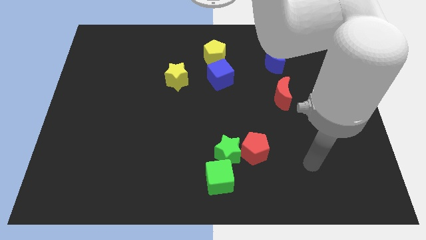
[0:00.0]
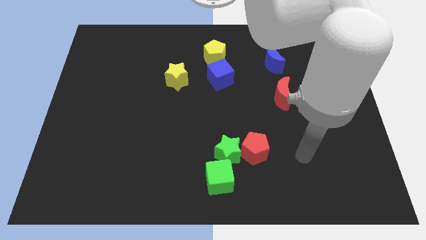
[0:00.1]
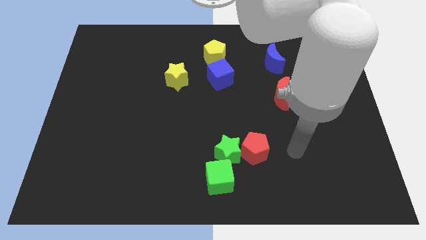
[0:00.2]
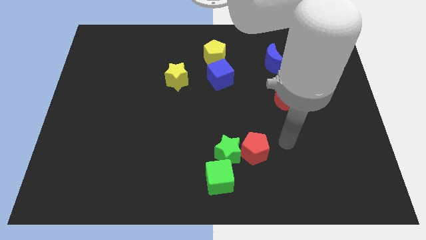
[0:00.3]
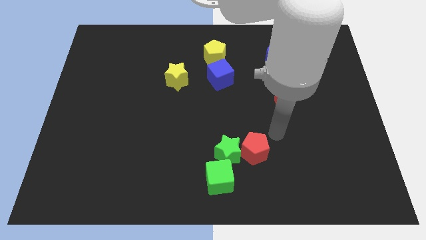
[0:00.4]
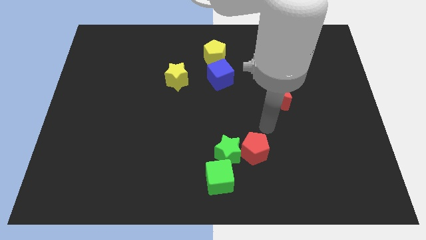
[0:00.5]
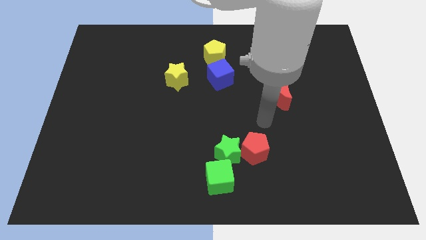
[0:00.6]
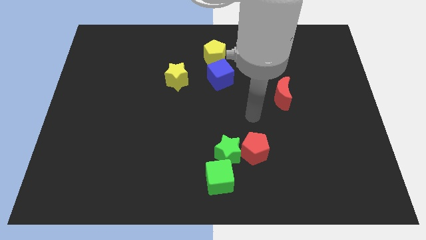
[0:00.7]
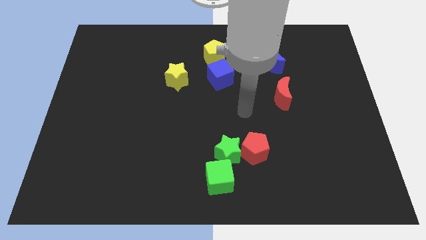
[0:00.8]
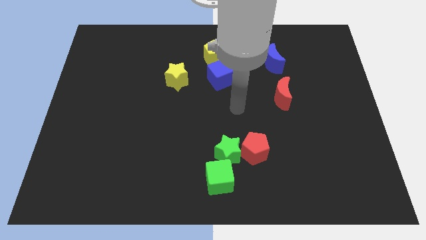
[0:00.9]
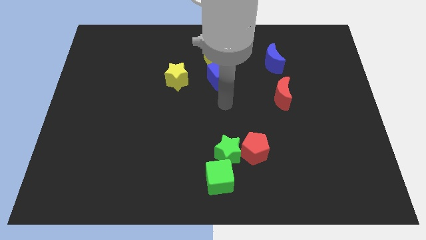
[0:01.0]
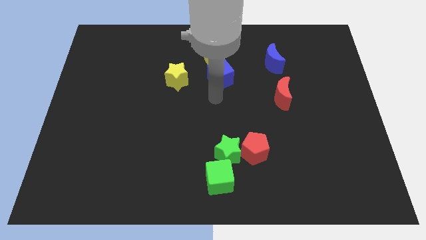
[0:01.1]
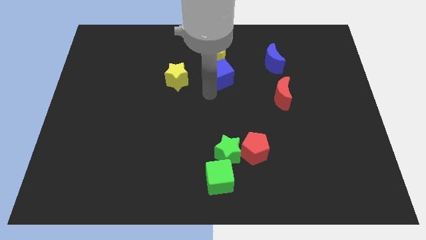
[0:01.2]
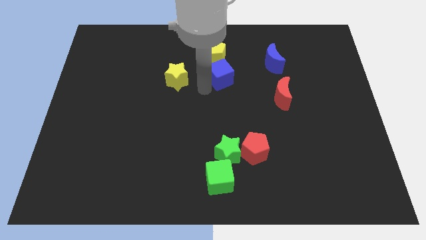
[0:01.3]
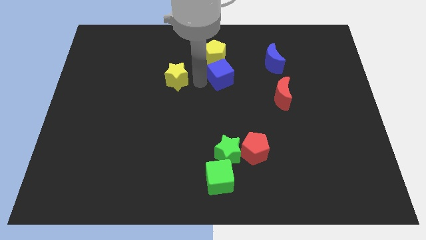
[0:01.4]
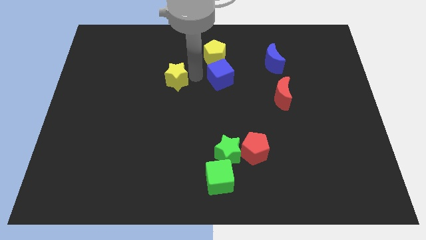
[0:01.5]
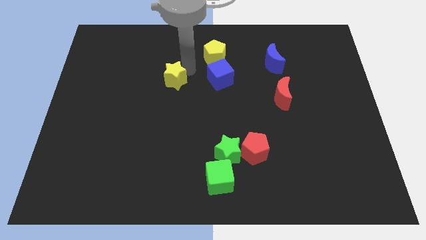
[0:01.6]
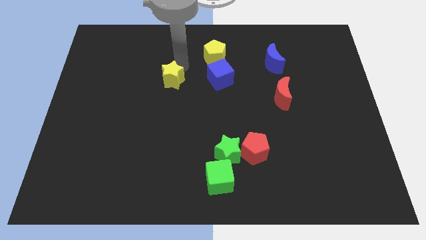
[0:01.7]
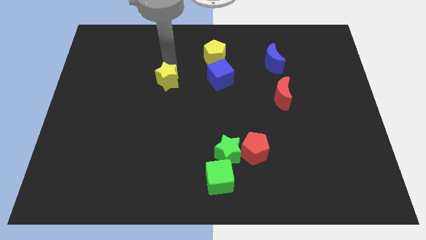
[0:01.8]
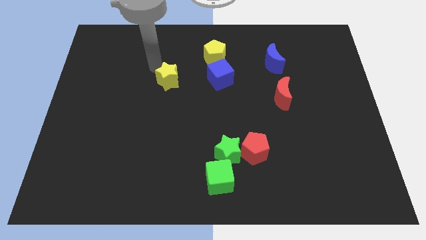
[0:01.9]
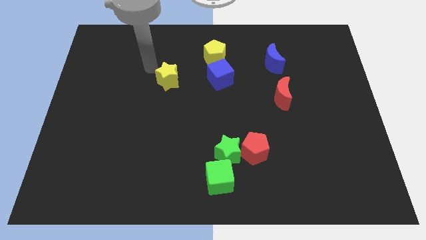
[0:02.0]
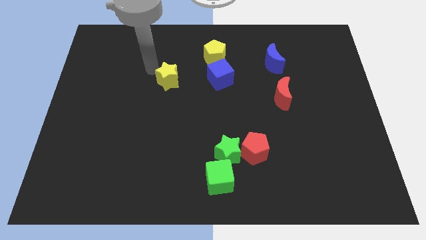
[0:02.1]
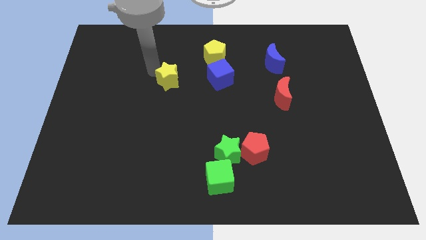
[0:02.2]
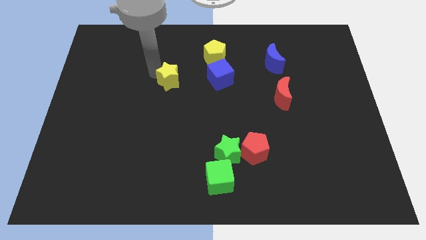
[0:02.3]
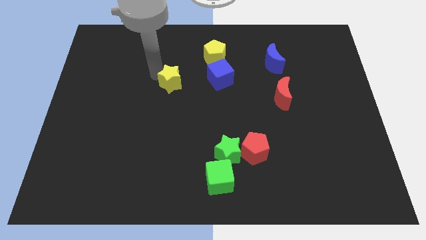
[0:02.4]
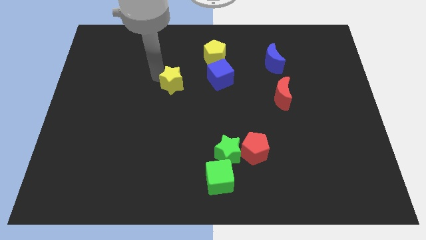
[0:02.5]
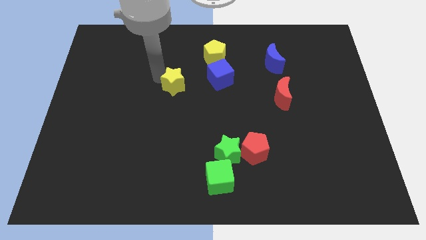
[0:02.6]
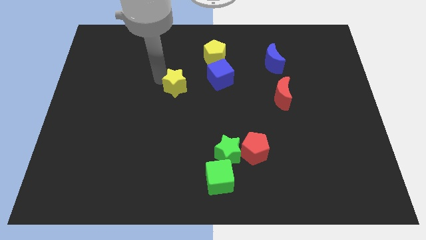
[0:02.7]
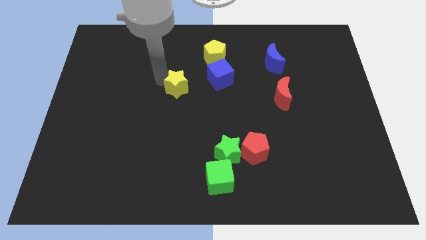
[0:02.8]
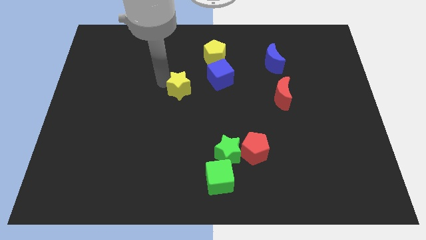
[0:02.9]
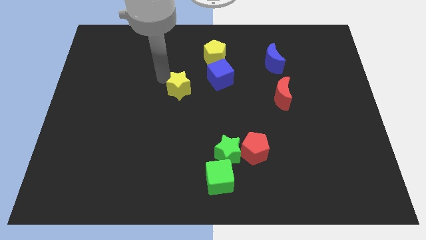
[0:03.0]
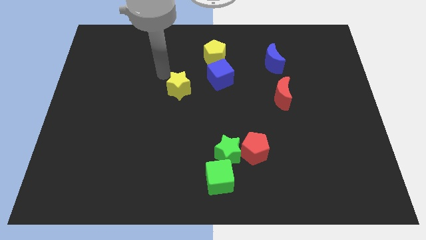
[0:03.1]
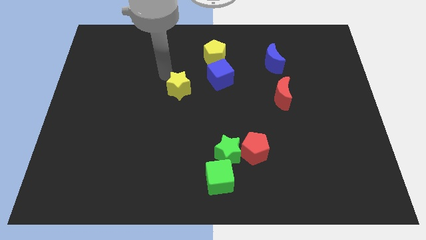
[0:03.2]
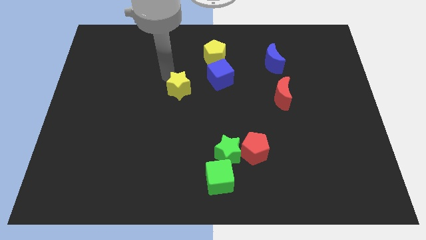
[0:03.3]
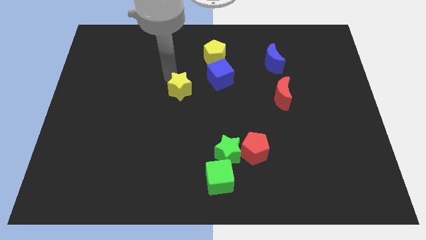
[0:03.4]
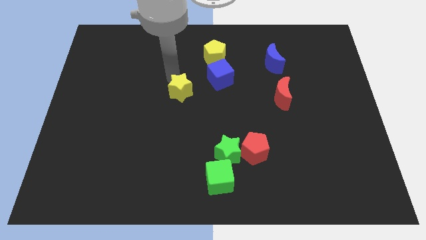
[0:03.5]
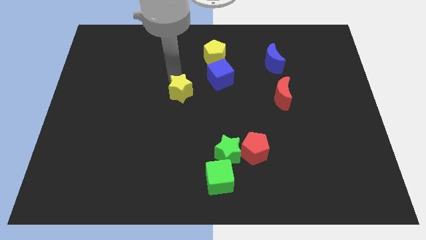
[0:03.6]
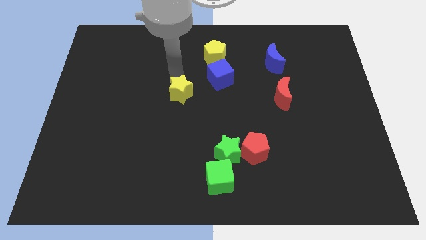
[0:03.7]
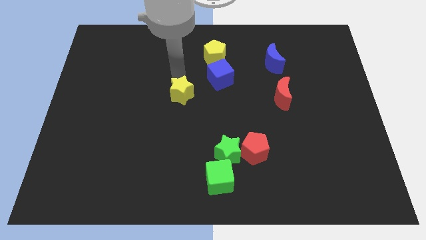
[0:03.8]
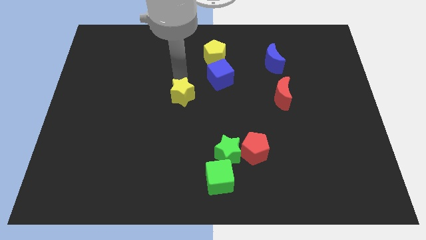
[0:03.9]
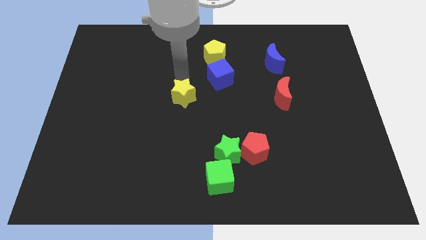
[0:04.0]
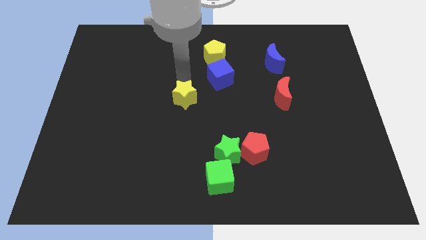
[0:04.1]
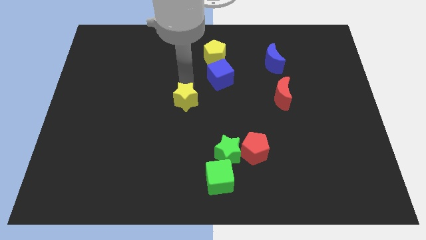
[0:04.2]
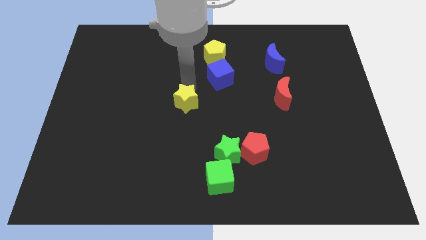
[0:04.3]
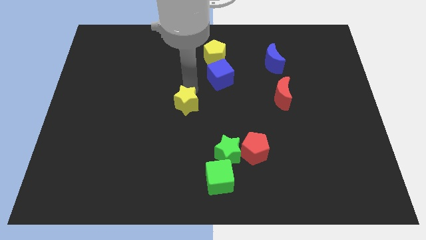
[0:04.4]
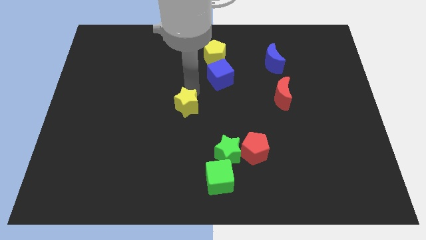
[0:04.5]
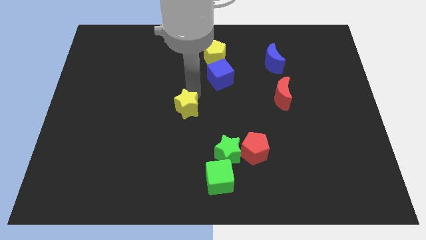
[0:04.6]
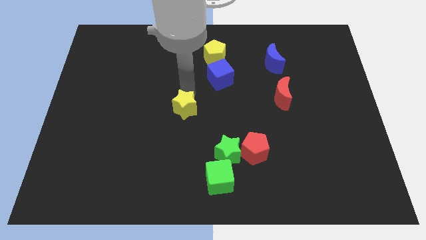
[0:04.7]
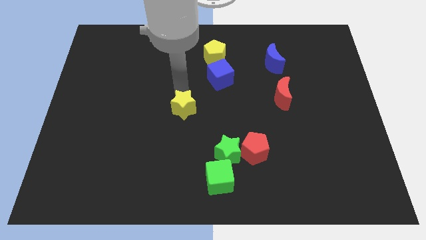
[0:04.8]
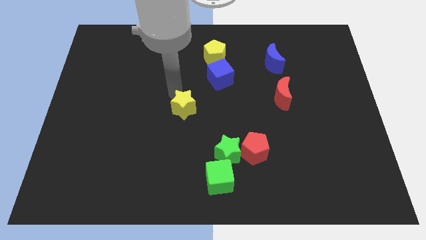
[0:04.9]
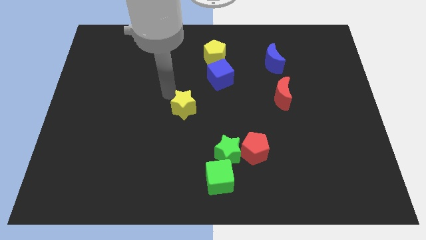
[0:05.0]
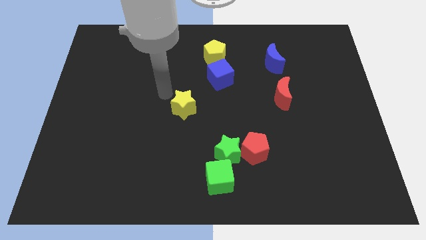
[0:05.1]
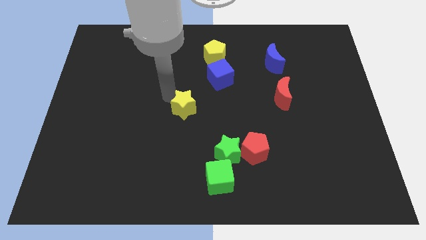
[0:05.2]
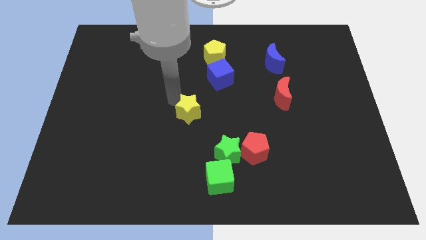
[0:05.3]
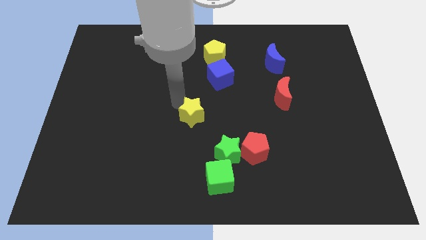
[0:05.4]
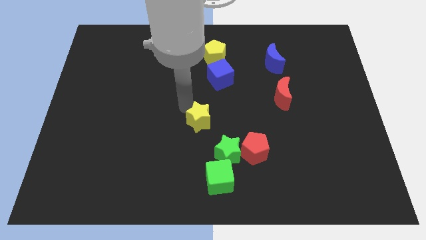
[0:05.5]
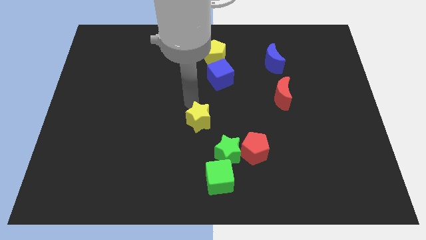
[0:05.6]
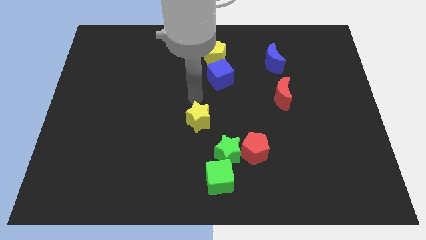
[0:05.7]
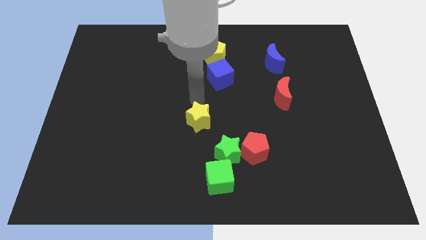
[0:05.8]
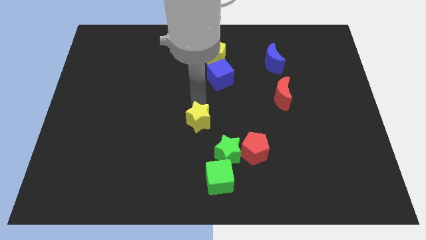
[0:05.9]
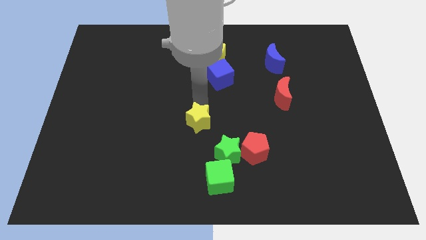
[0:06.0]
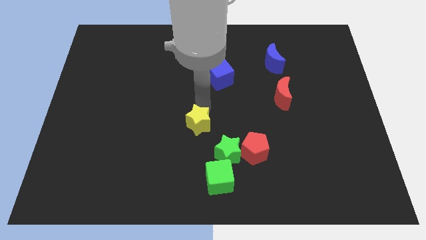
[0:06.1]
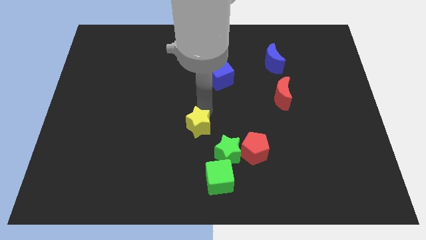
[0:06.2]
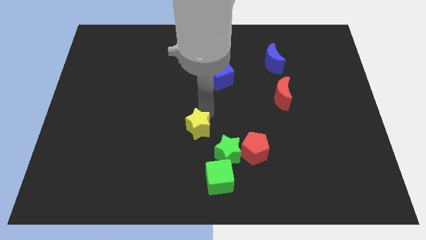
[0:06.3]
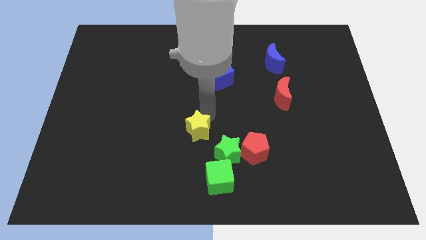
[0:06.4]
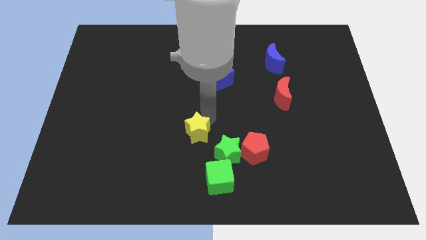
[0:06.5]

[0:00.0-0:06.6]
slide the yellow star left of the red pentagon
